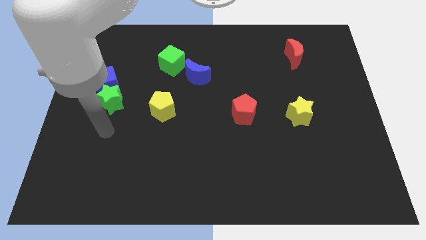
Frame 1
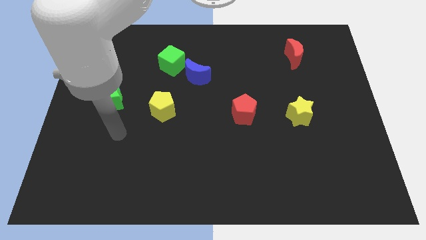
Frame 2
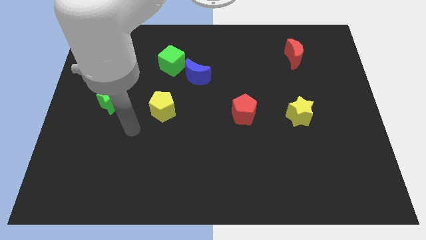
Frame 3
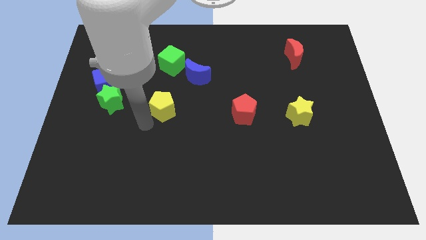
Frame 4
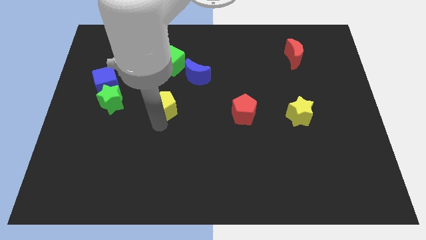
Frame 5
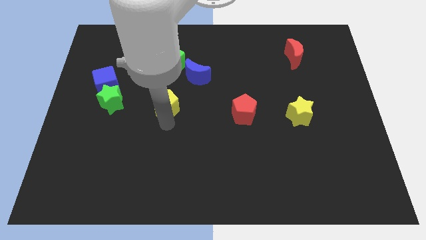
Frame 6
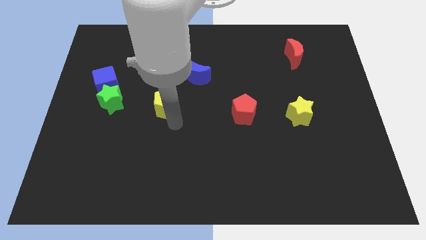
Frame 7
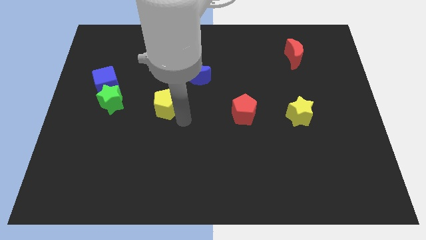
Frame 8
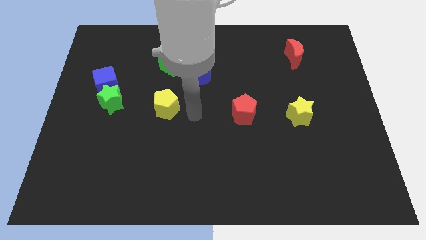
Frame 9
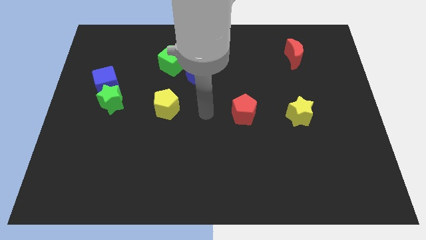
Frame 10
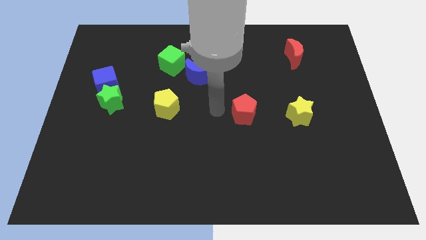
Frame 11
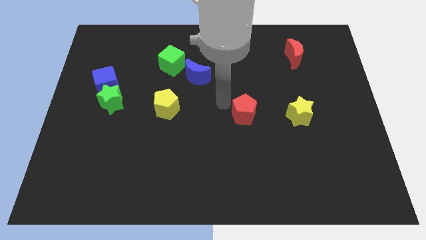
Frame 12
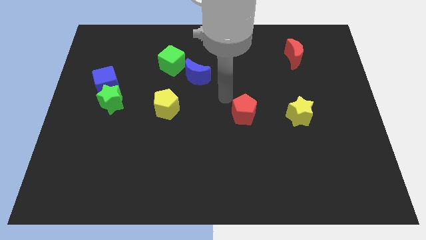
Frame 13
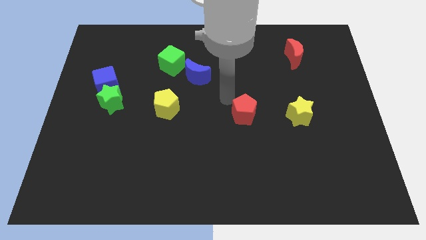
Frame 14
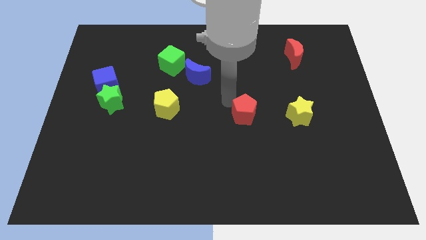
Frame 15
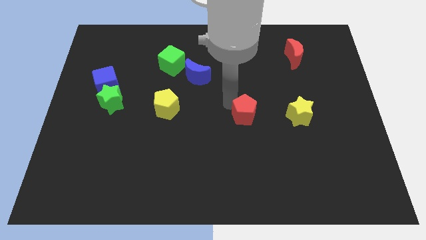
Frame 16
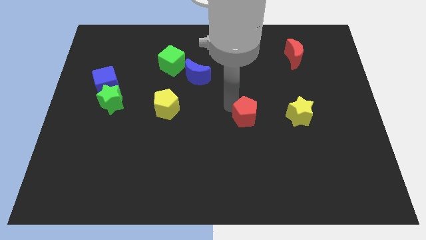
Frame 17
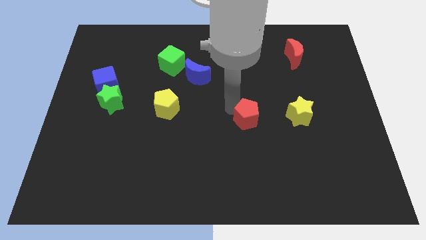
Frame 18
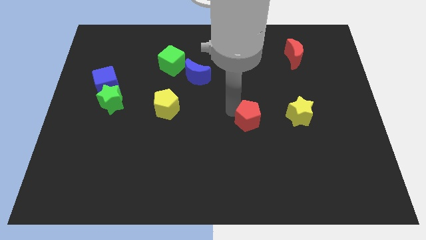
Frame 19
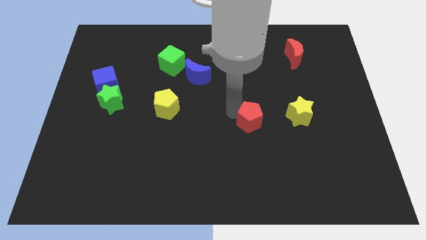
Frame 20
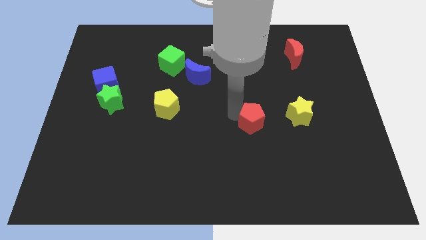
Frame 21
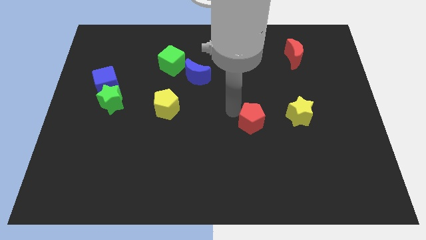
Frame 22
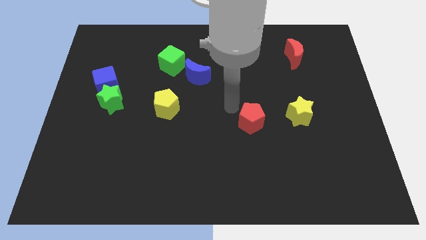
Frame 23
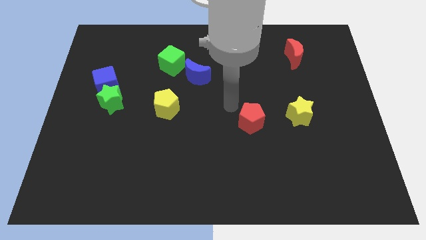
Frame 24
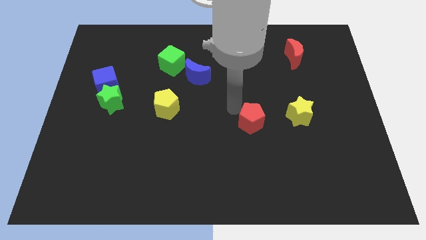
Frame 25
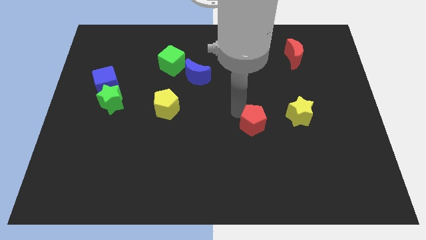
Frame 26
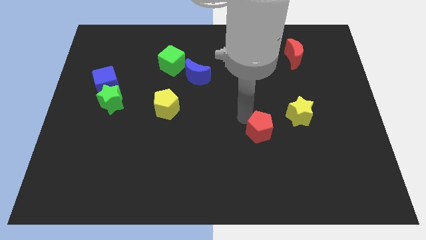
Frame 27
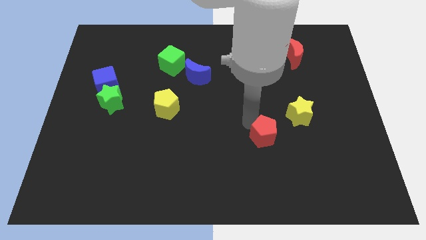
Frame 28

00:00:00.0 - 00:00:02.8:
slightly slide the red pentagon downwards and then to the right

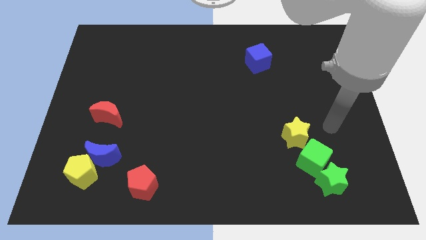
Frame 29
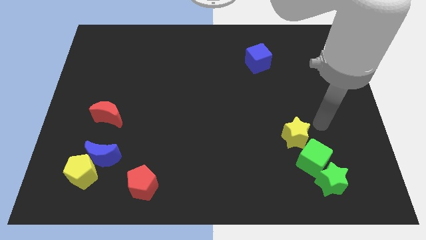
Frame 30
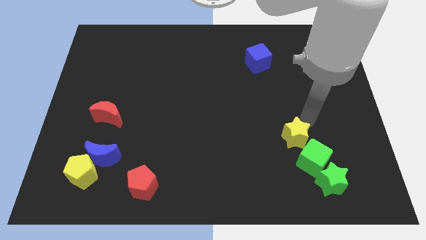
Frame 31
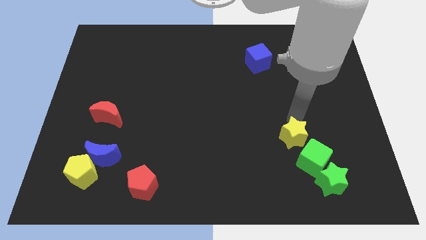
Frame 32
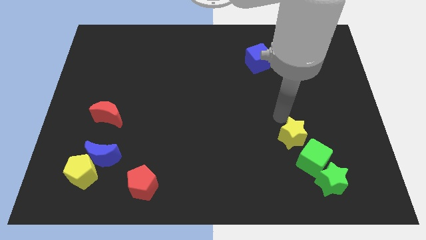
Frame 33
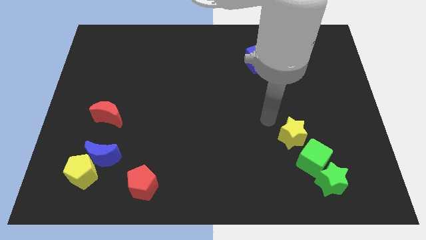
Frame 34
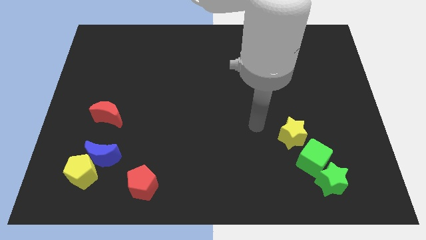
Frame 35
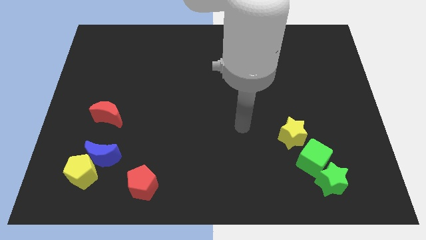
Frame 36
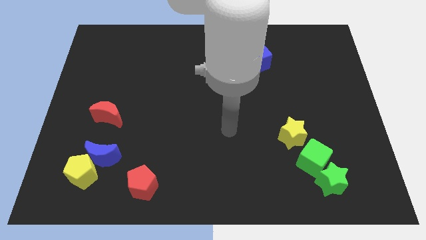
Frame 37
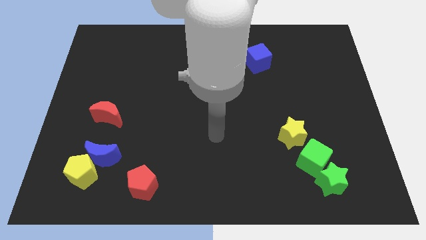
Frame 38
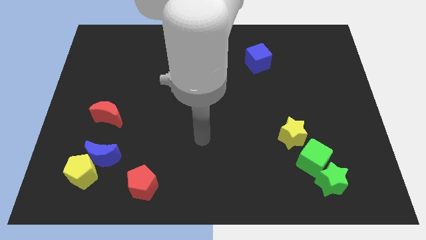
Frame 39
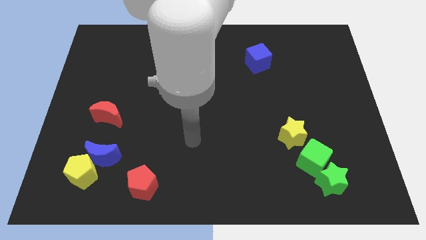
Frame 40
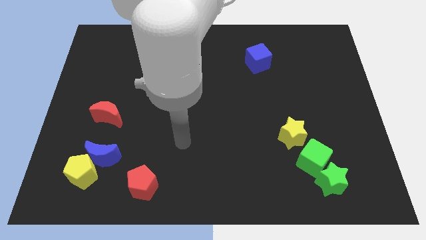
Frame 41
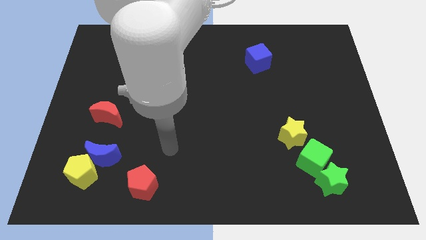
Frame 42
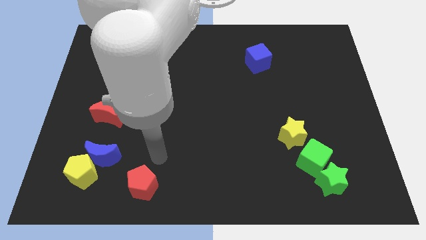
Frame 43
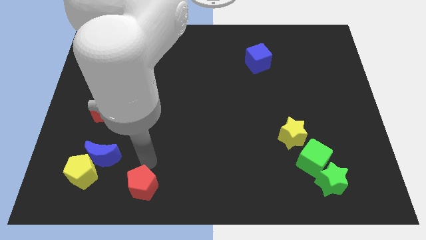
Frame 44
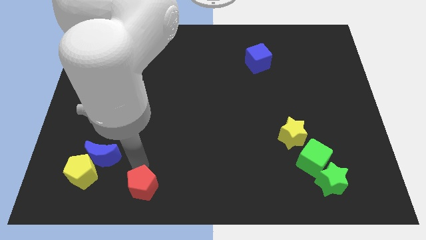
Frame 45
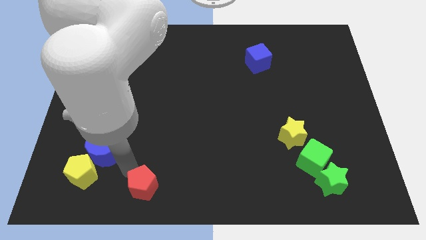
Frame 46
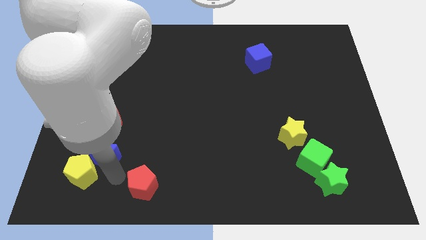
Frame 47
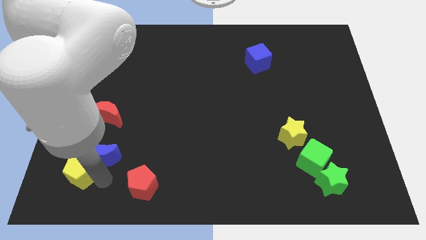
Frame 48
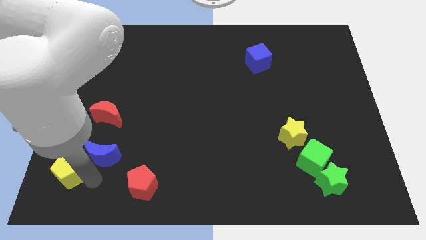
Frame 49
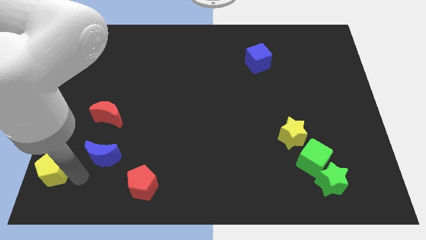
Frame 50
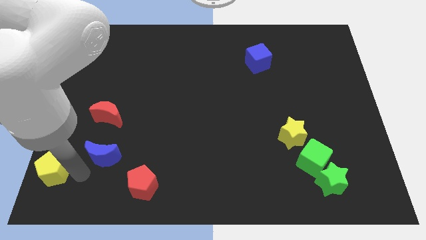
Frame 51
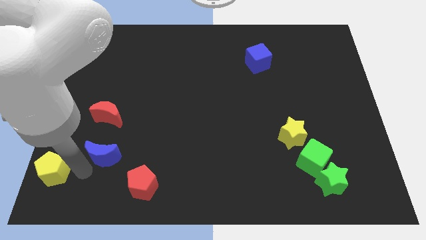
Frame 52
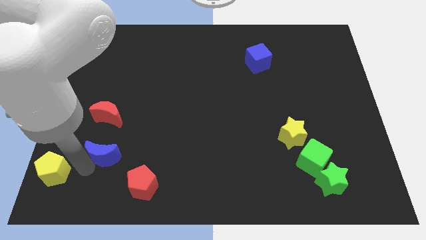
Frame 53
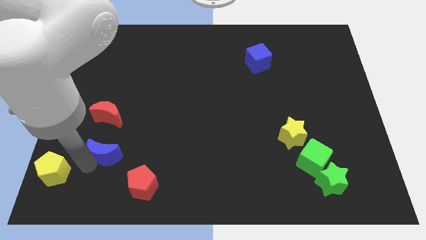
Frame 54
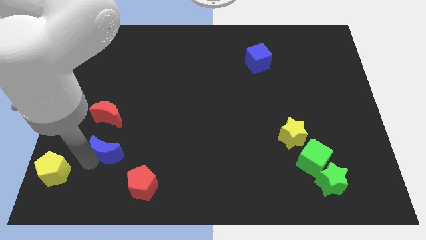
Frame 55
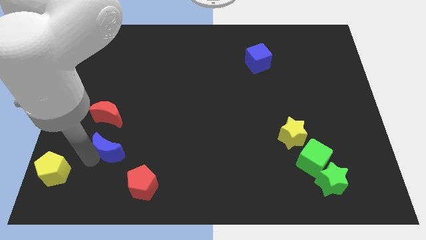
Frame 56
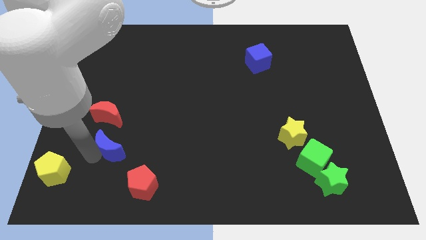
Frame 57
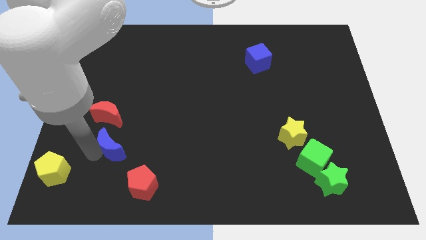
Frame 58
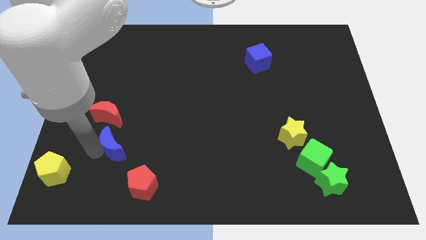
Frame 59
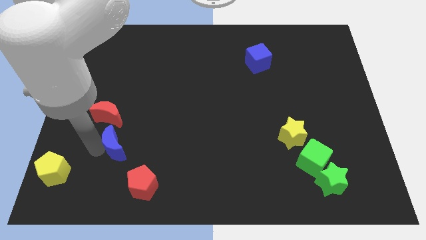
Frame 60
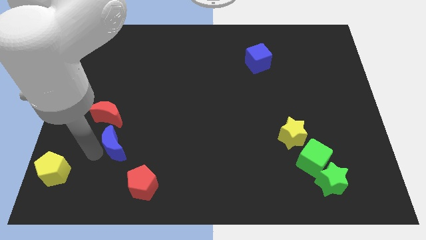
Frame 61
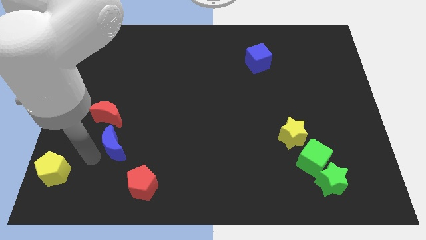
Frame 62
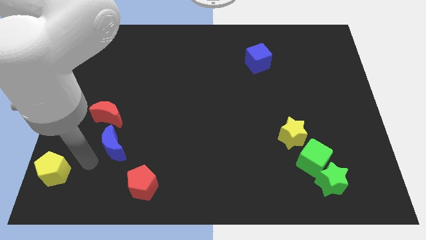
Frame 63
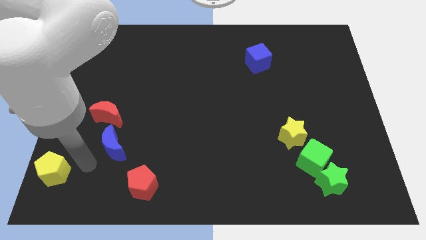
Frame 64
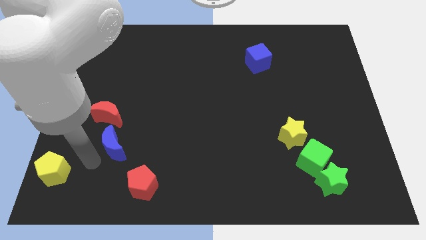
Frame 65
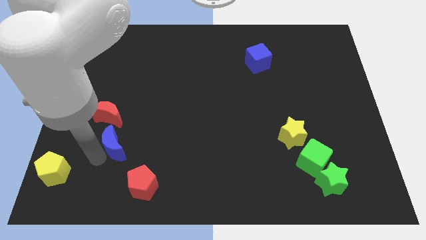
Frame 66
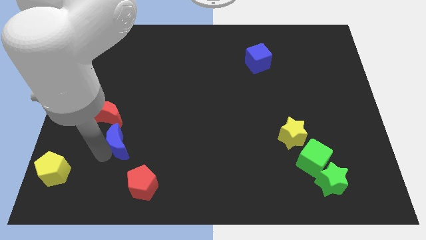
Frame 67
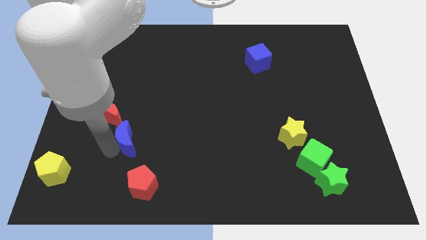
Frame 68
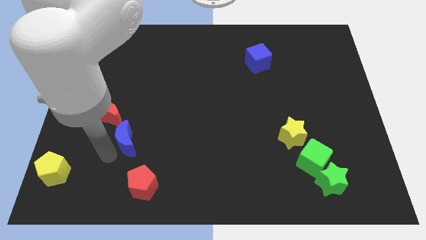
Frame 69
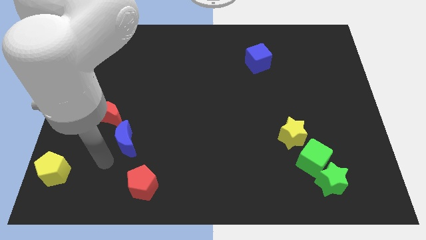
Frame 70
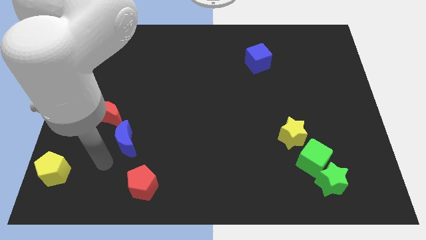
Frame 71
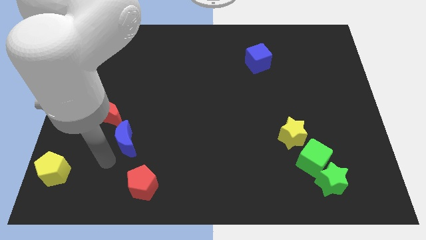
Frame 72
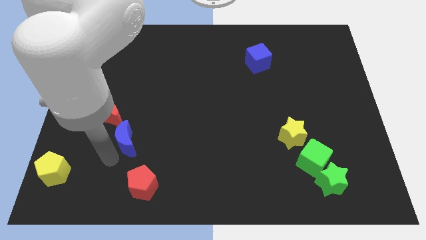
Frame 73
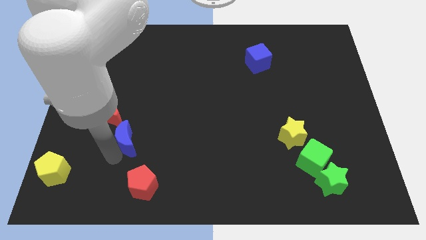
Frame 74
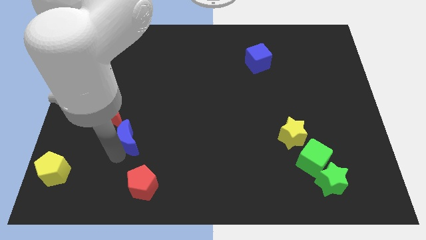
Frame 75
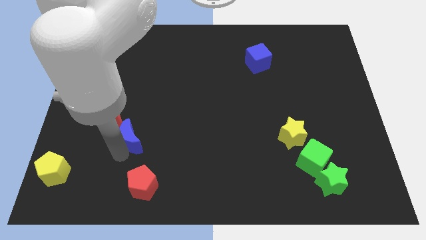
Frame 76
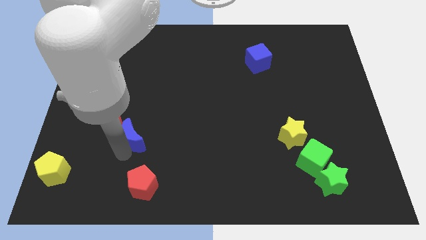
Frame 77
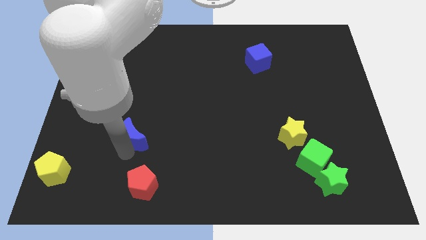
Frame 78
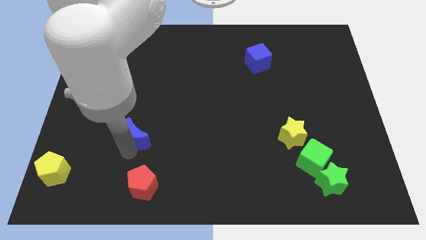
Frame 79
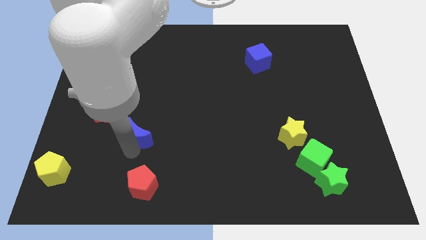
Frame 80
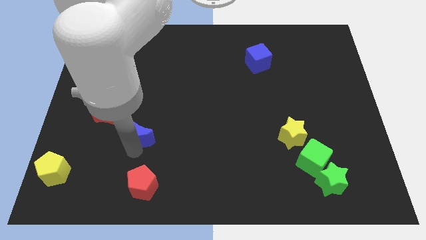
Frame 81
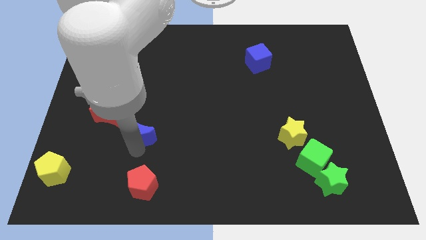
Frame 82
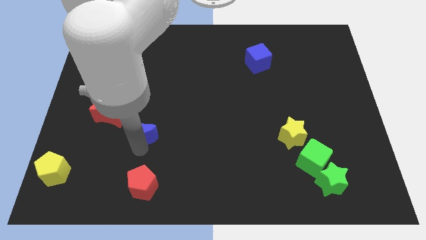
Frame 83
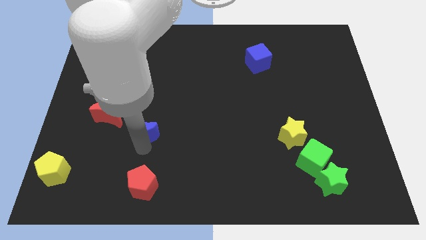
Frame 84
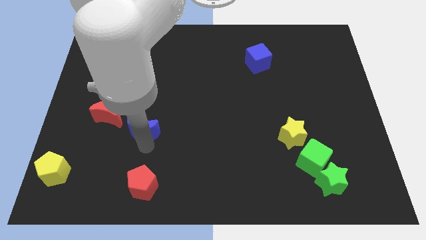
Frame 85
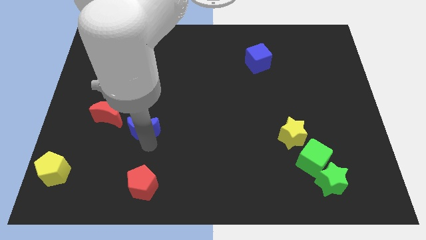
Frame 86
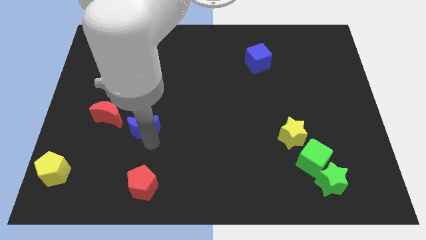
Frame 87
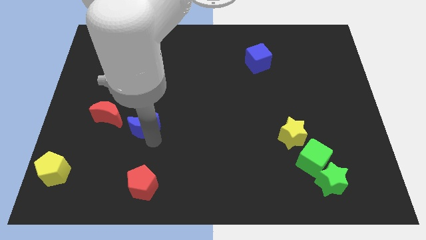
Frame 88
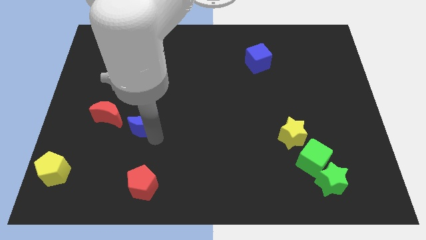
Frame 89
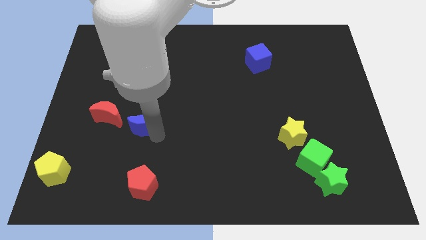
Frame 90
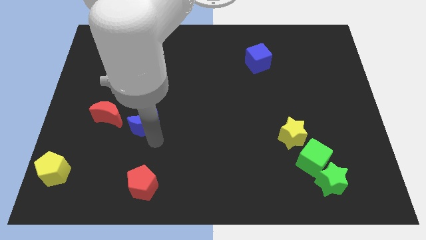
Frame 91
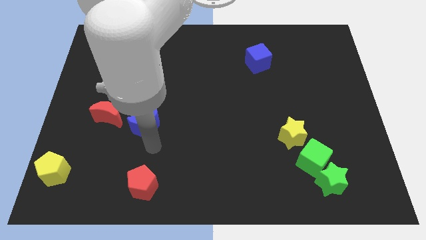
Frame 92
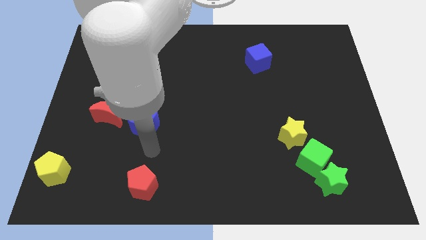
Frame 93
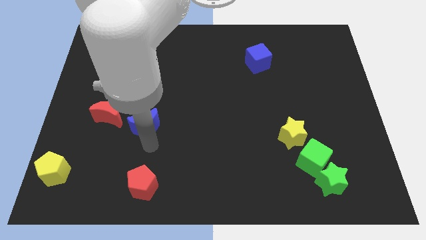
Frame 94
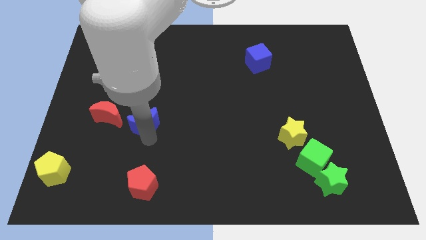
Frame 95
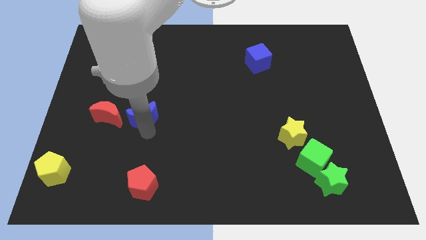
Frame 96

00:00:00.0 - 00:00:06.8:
slightly move the blue moon upwards
